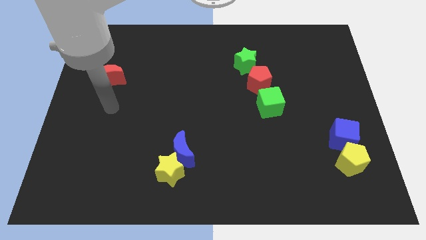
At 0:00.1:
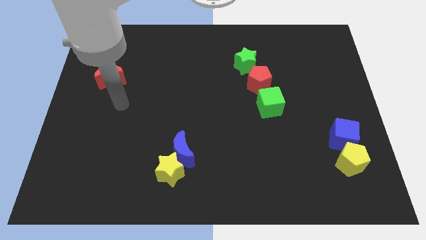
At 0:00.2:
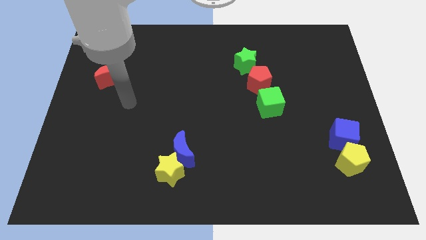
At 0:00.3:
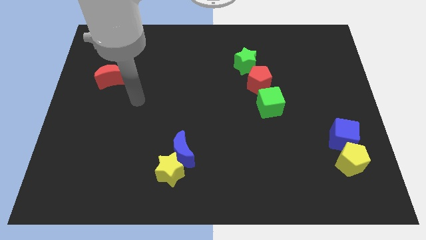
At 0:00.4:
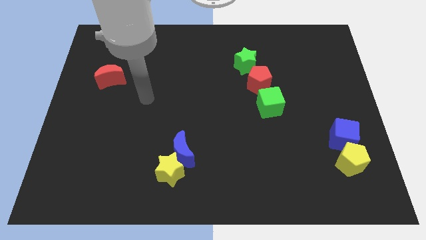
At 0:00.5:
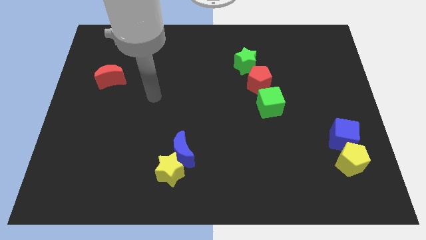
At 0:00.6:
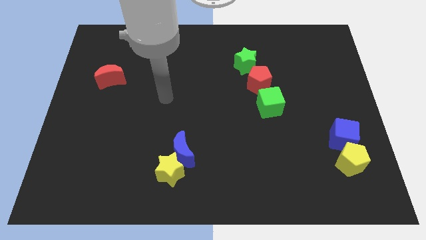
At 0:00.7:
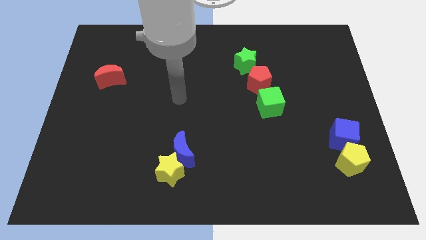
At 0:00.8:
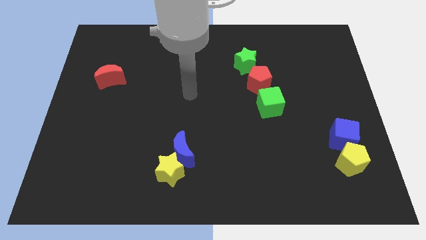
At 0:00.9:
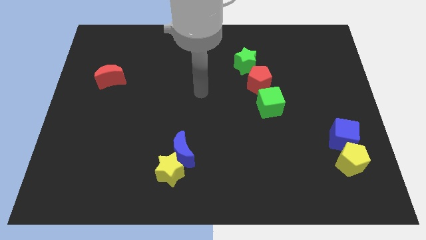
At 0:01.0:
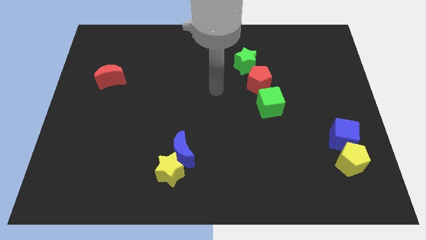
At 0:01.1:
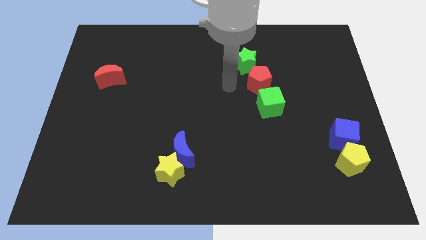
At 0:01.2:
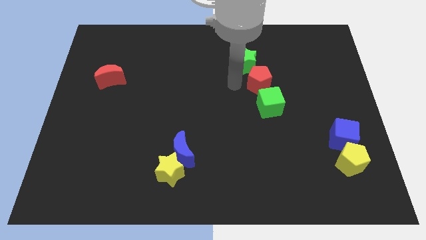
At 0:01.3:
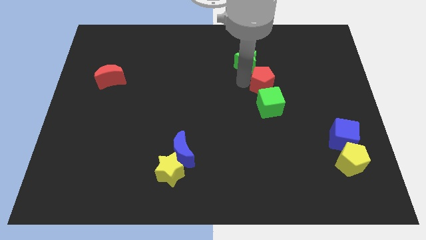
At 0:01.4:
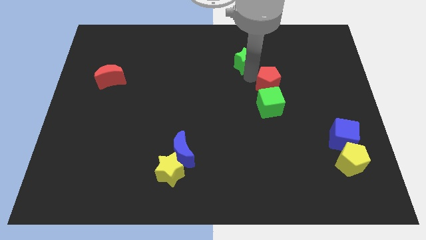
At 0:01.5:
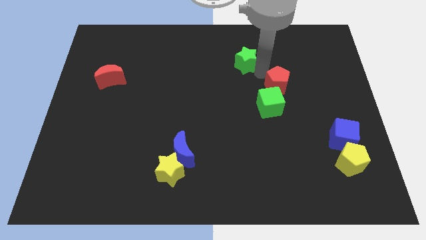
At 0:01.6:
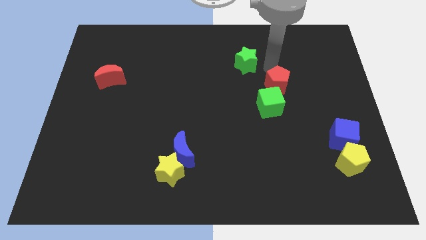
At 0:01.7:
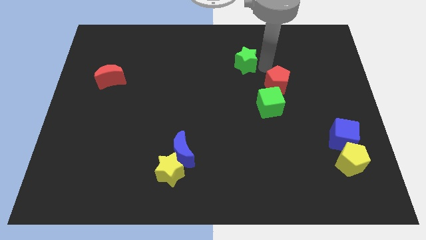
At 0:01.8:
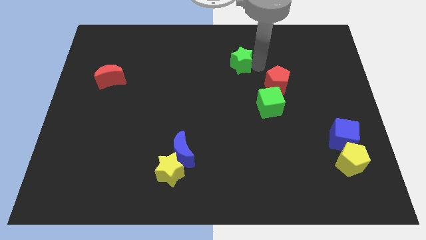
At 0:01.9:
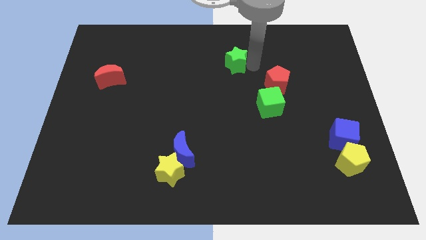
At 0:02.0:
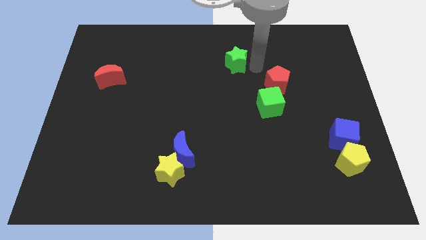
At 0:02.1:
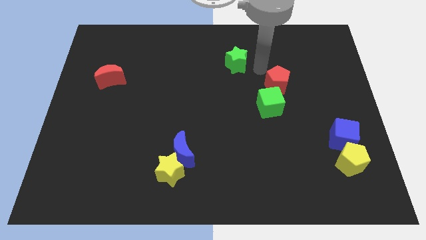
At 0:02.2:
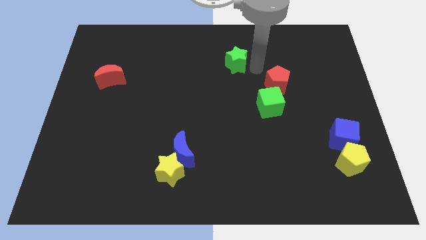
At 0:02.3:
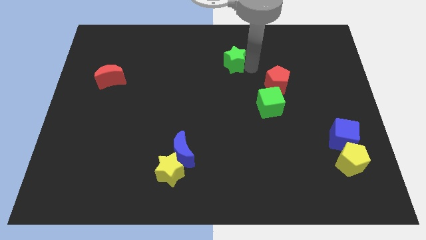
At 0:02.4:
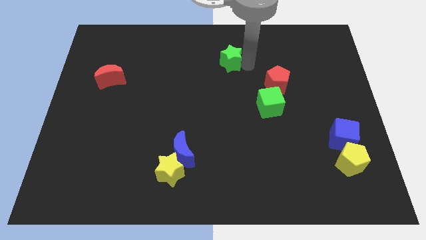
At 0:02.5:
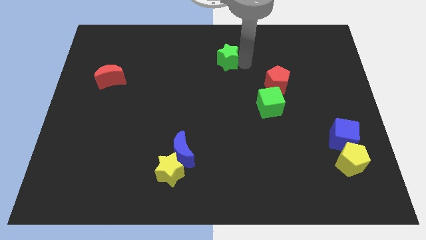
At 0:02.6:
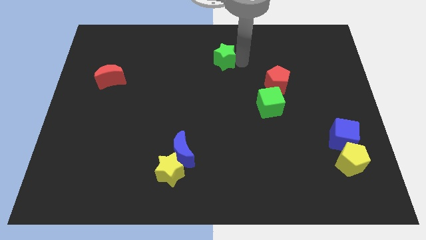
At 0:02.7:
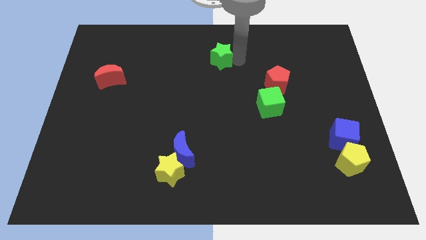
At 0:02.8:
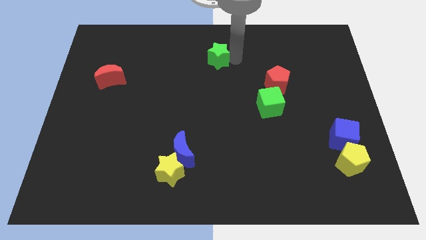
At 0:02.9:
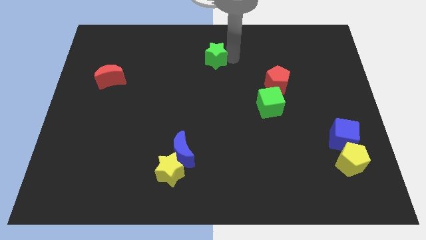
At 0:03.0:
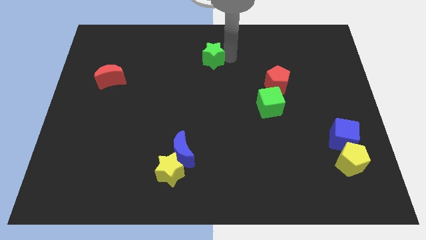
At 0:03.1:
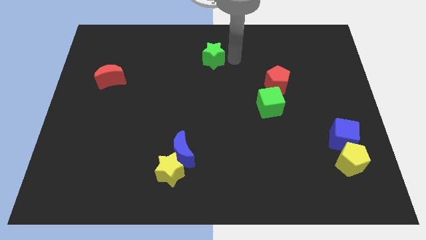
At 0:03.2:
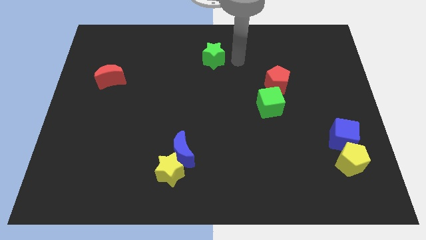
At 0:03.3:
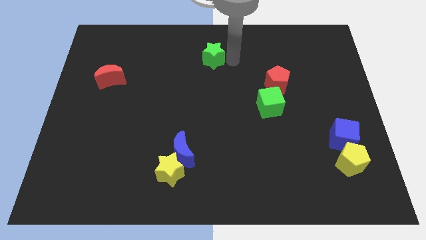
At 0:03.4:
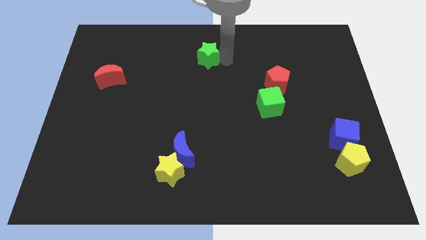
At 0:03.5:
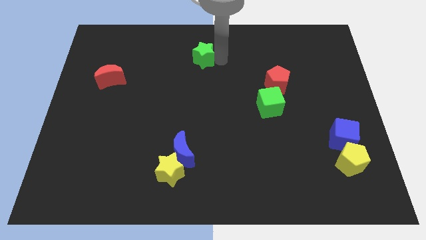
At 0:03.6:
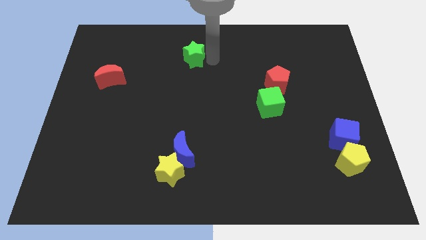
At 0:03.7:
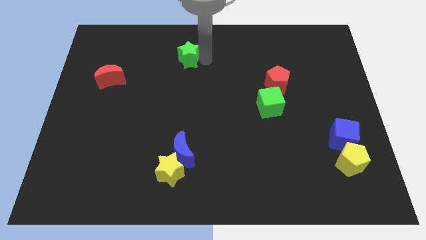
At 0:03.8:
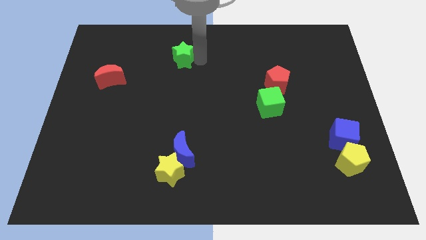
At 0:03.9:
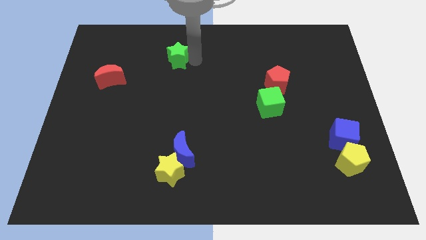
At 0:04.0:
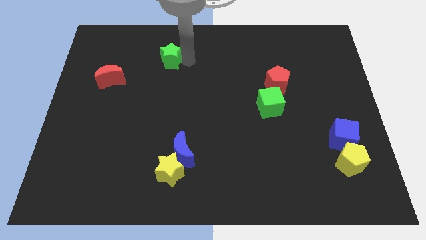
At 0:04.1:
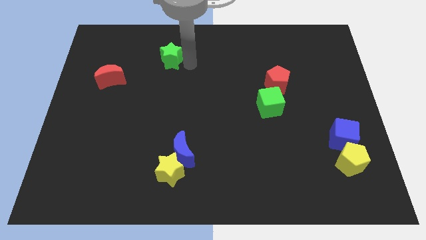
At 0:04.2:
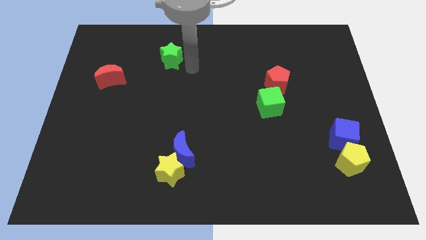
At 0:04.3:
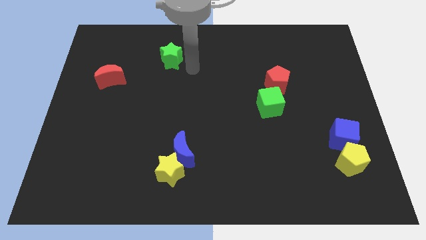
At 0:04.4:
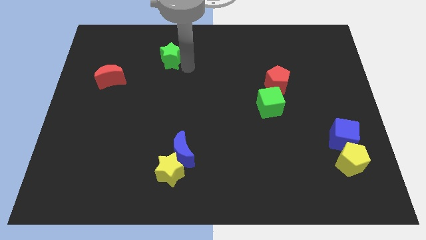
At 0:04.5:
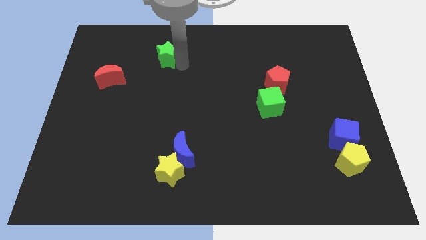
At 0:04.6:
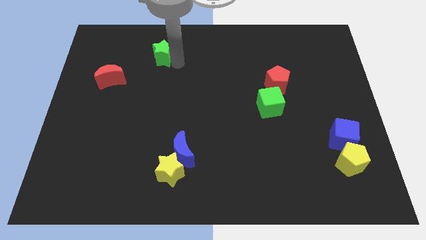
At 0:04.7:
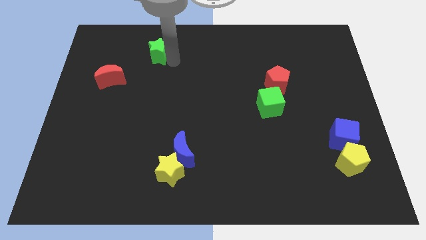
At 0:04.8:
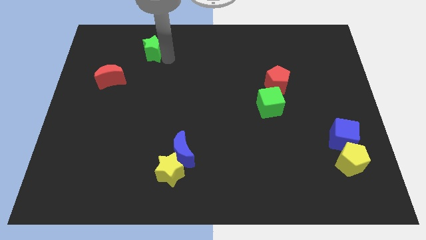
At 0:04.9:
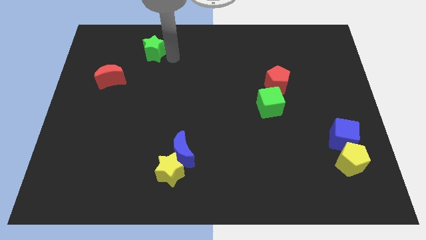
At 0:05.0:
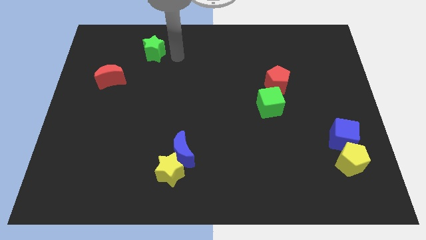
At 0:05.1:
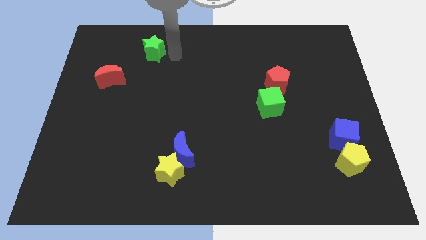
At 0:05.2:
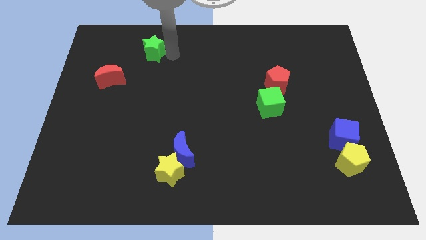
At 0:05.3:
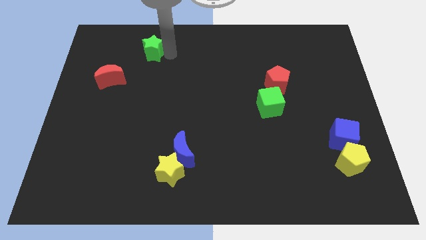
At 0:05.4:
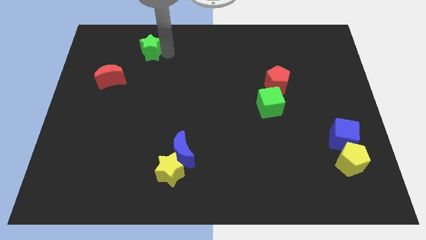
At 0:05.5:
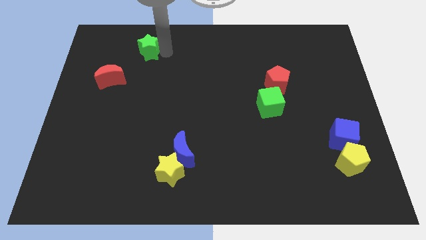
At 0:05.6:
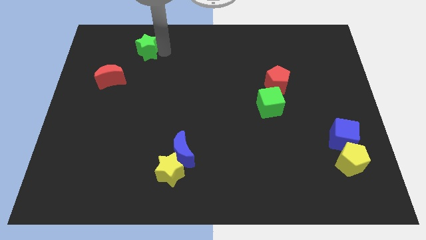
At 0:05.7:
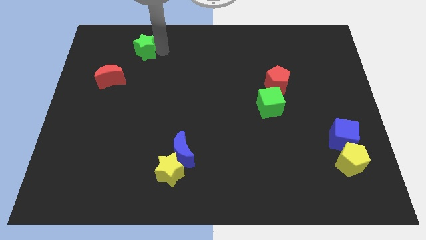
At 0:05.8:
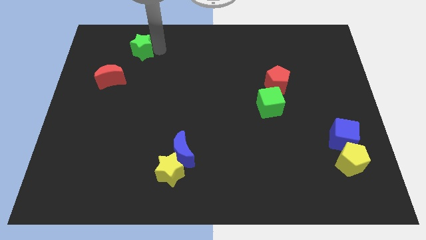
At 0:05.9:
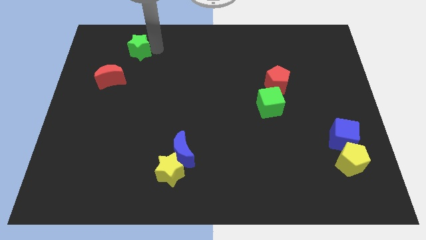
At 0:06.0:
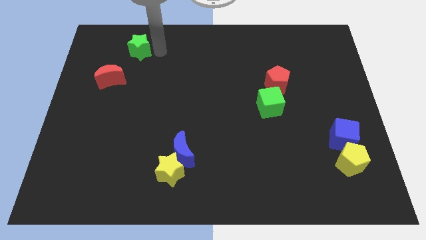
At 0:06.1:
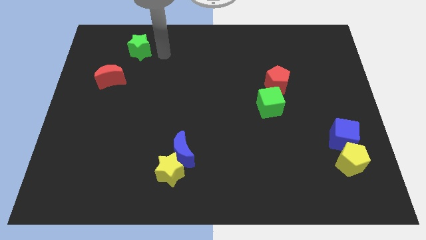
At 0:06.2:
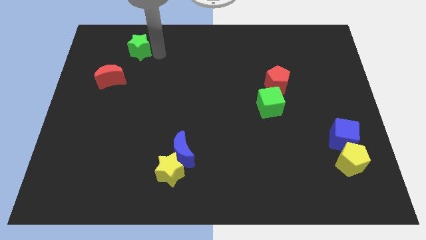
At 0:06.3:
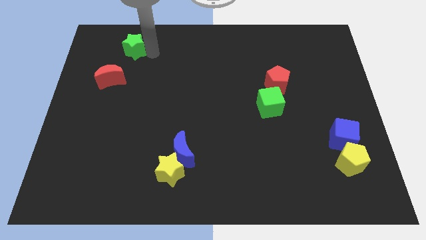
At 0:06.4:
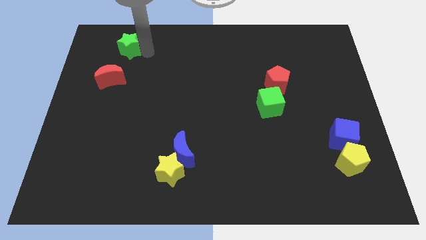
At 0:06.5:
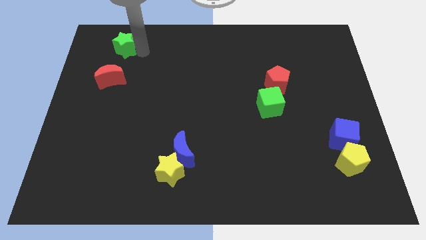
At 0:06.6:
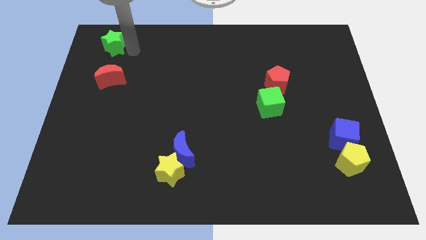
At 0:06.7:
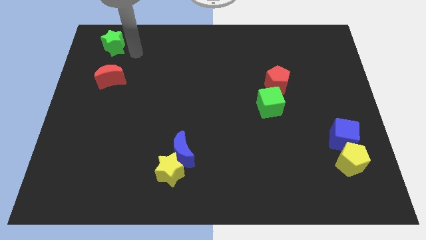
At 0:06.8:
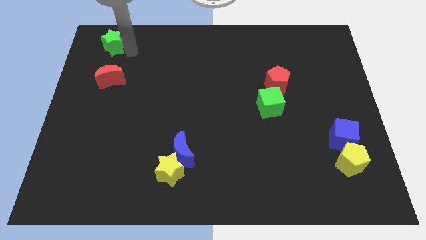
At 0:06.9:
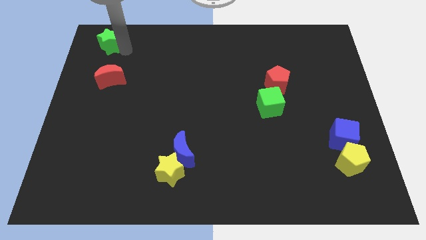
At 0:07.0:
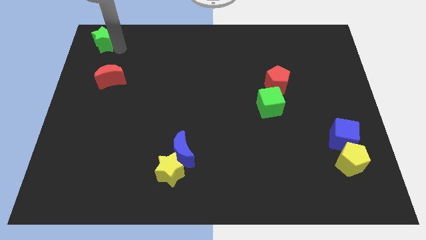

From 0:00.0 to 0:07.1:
move the green star to the top left of the board
